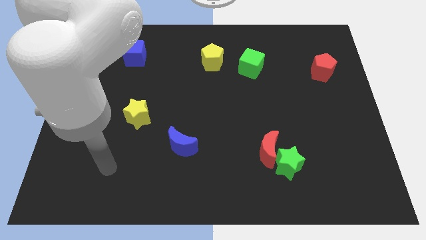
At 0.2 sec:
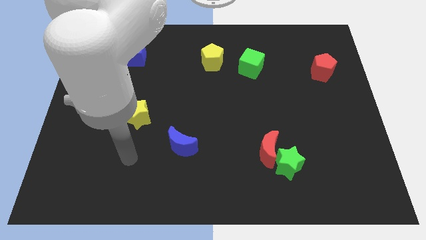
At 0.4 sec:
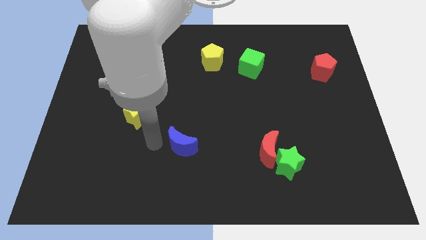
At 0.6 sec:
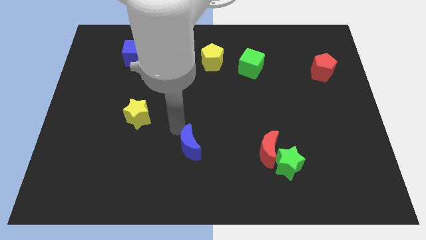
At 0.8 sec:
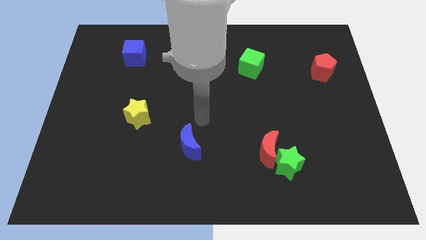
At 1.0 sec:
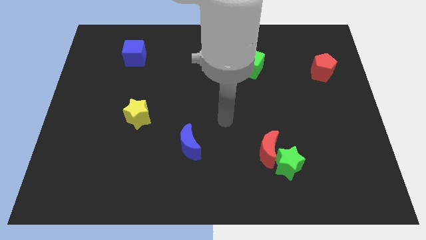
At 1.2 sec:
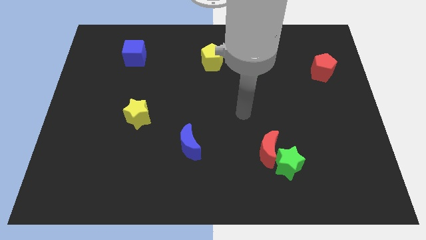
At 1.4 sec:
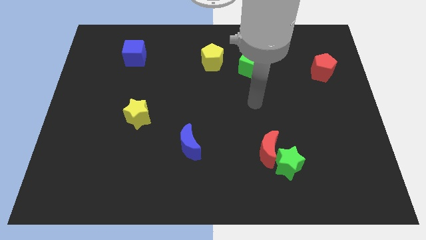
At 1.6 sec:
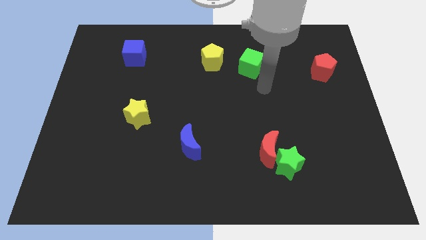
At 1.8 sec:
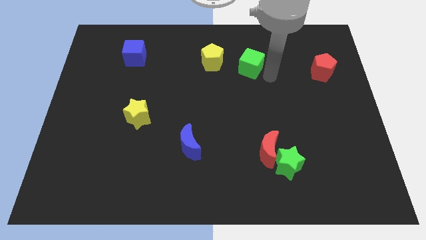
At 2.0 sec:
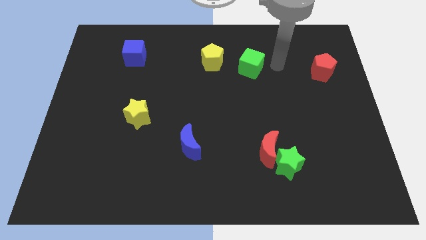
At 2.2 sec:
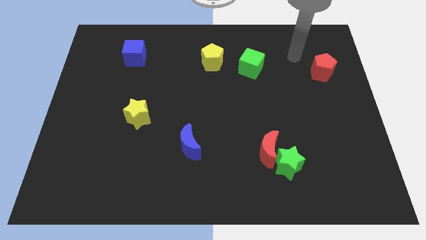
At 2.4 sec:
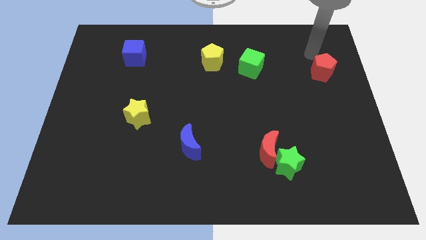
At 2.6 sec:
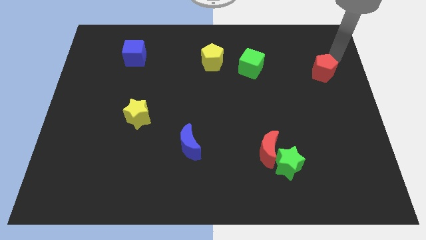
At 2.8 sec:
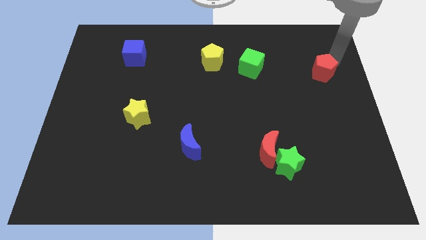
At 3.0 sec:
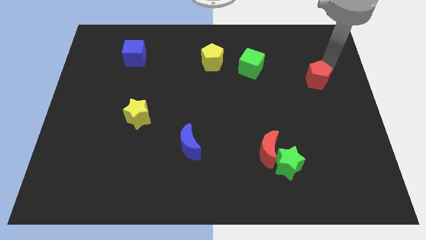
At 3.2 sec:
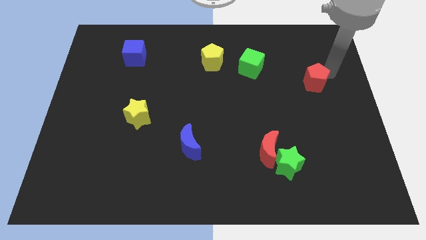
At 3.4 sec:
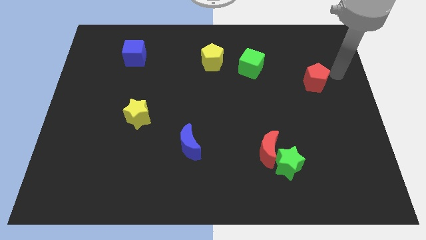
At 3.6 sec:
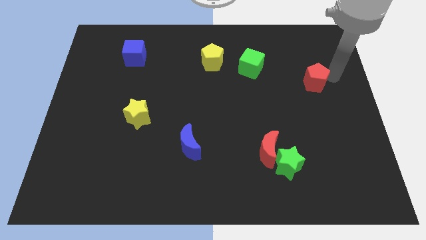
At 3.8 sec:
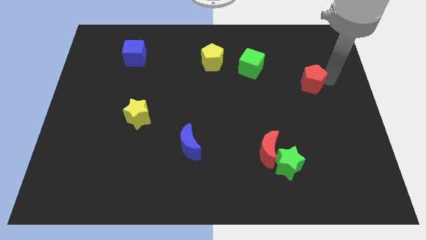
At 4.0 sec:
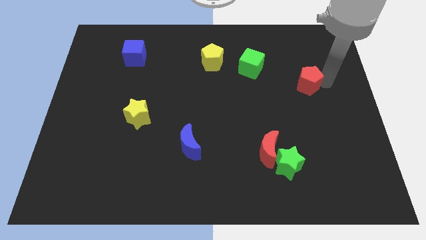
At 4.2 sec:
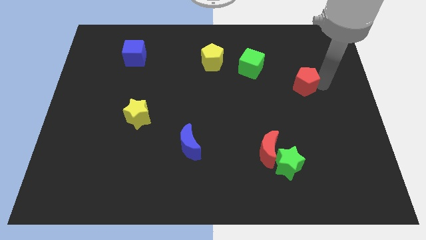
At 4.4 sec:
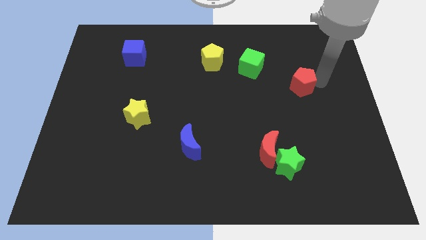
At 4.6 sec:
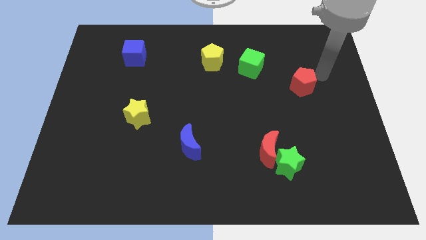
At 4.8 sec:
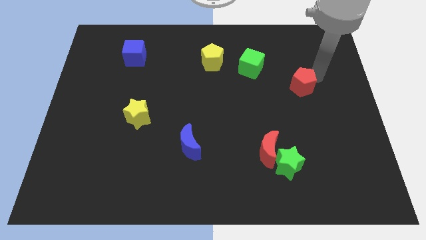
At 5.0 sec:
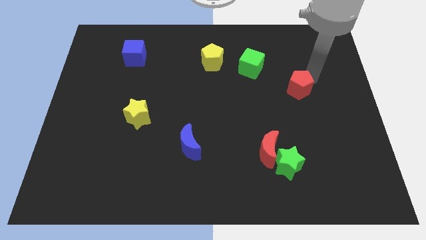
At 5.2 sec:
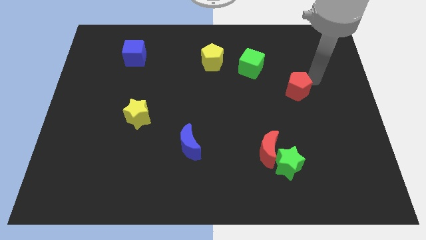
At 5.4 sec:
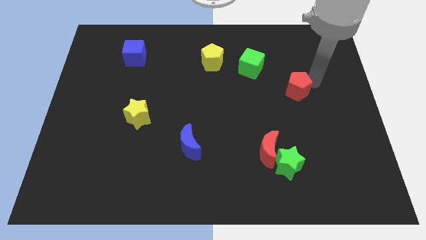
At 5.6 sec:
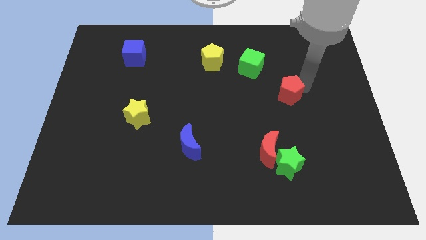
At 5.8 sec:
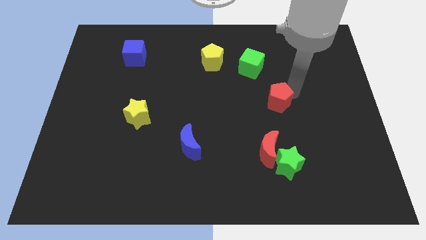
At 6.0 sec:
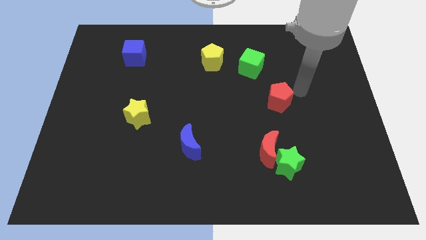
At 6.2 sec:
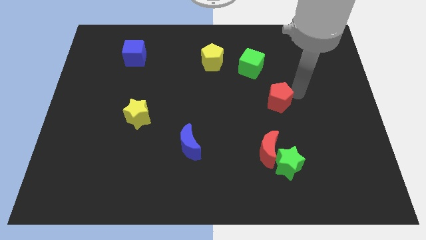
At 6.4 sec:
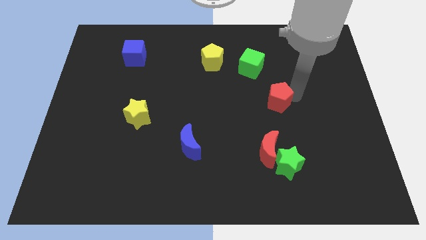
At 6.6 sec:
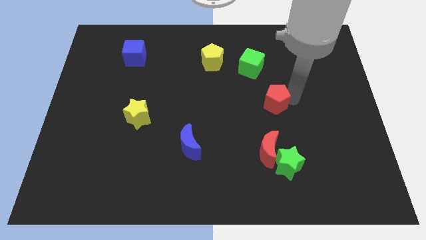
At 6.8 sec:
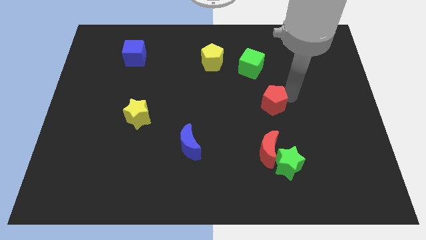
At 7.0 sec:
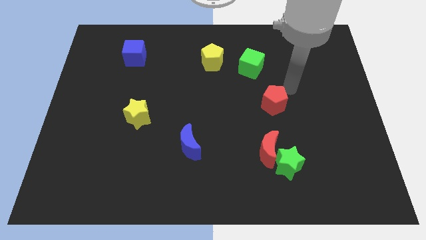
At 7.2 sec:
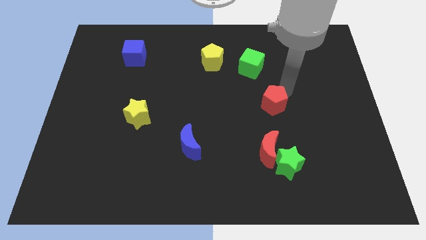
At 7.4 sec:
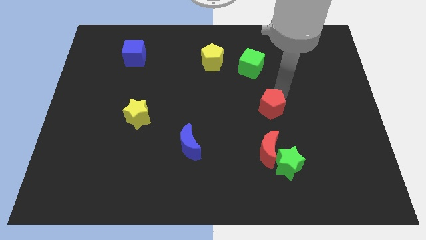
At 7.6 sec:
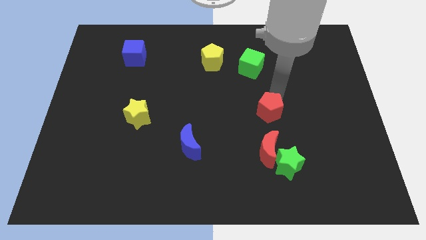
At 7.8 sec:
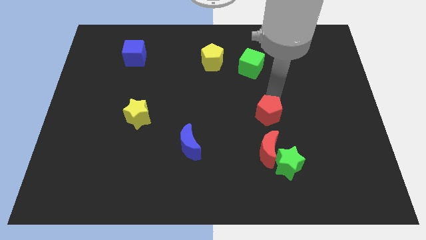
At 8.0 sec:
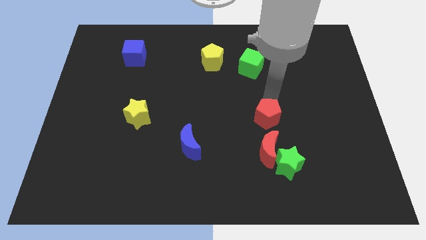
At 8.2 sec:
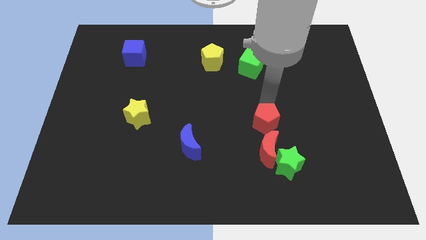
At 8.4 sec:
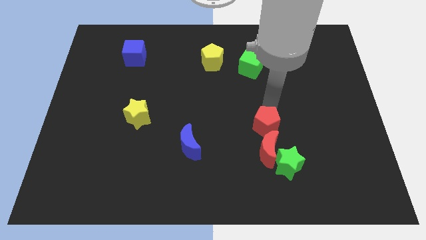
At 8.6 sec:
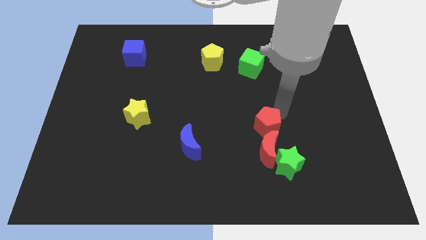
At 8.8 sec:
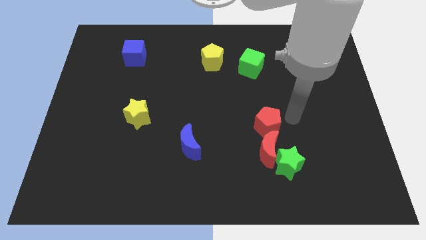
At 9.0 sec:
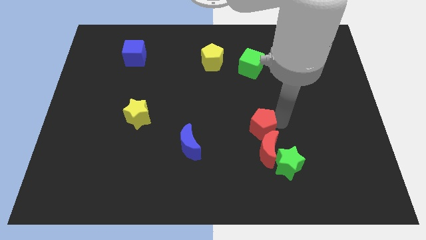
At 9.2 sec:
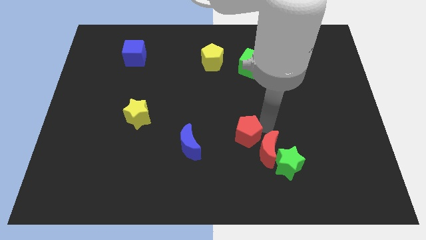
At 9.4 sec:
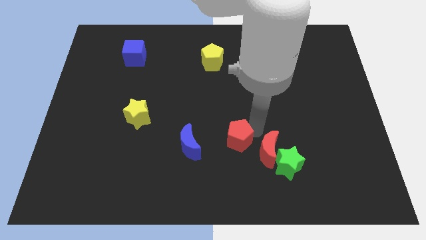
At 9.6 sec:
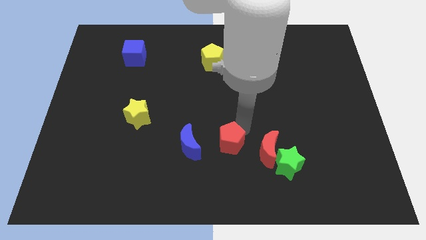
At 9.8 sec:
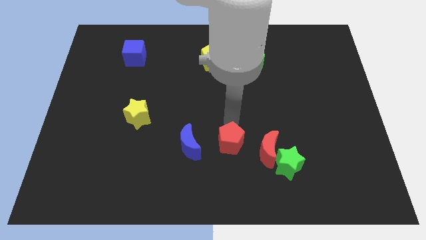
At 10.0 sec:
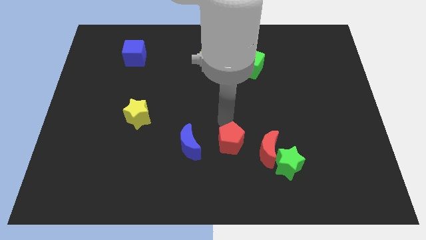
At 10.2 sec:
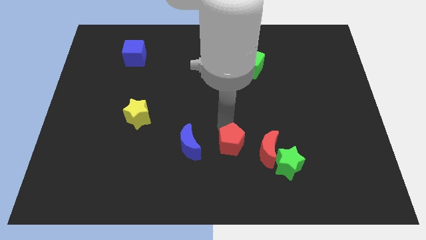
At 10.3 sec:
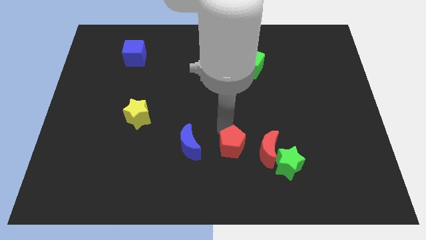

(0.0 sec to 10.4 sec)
slide the red pentagon left of the green star

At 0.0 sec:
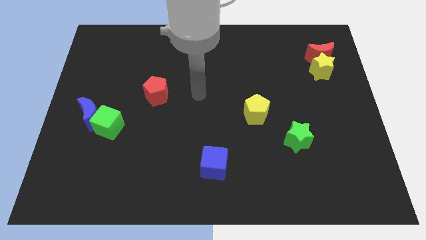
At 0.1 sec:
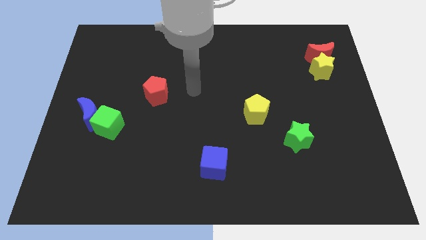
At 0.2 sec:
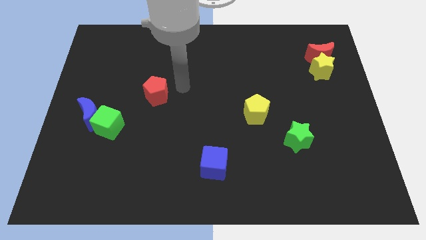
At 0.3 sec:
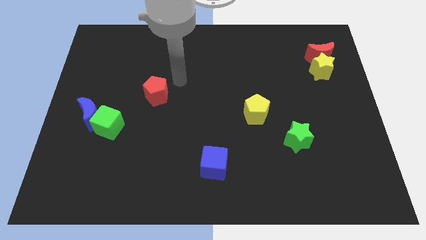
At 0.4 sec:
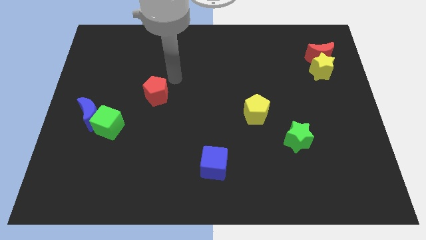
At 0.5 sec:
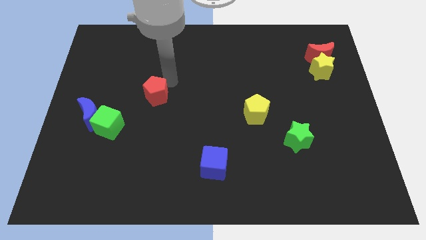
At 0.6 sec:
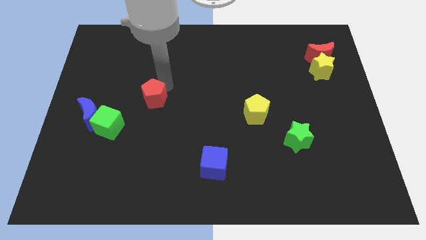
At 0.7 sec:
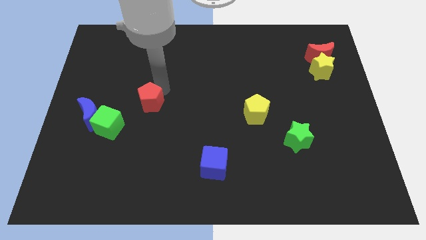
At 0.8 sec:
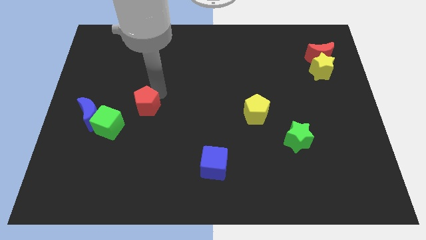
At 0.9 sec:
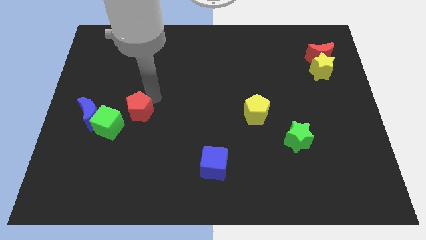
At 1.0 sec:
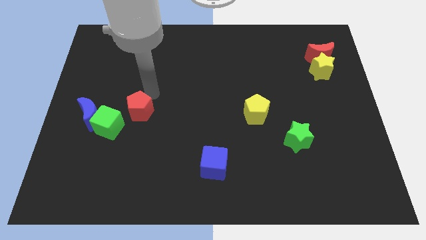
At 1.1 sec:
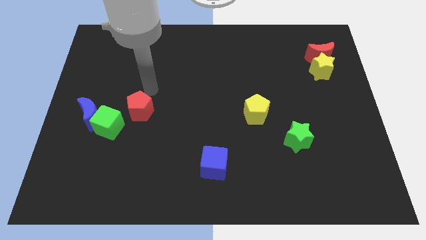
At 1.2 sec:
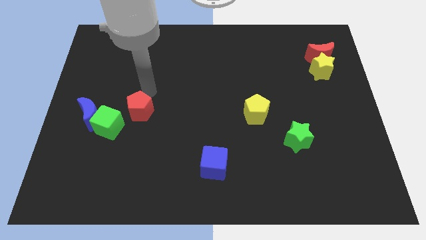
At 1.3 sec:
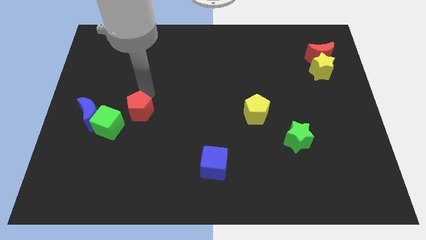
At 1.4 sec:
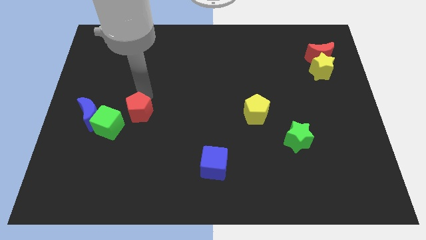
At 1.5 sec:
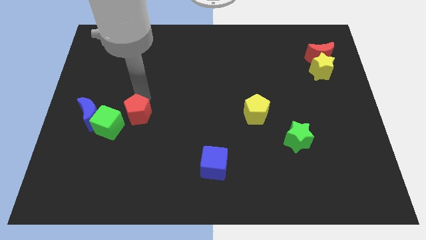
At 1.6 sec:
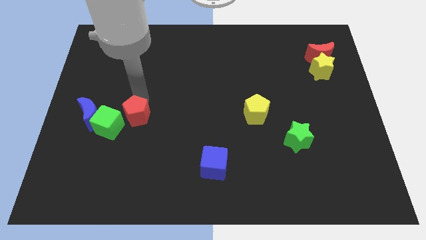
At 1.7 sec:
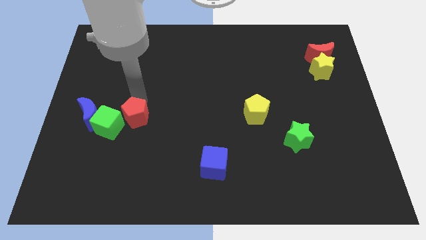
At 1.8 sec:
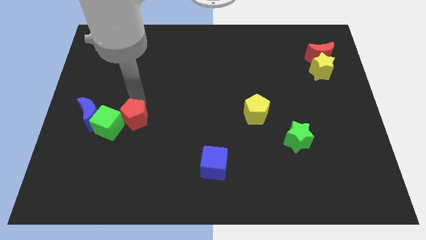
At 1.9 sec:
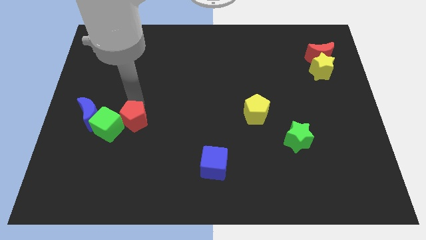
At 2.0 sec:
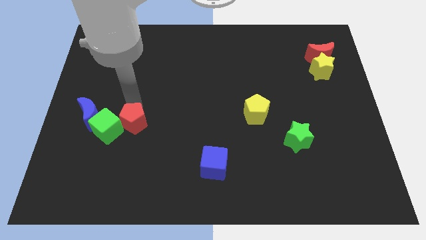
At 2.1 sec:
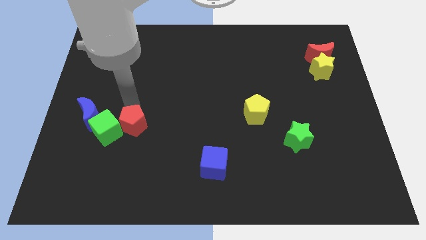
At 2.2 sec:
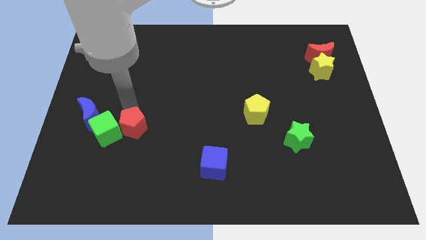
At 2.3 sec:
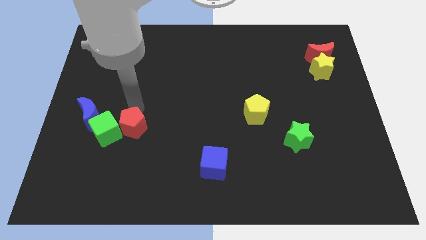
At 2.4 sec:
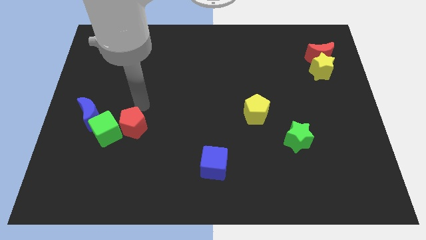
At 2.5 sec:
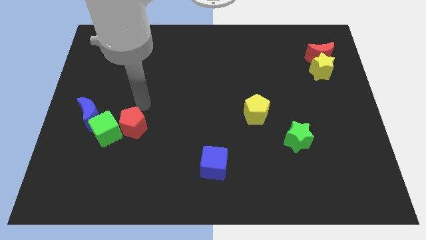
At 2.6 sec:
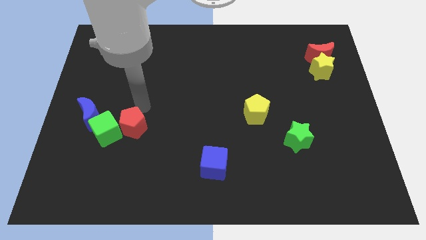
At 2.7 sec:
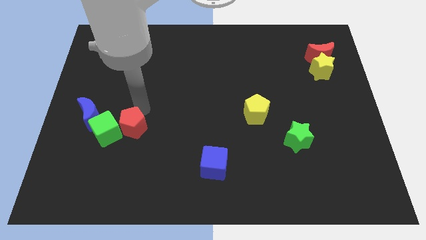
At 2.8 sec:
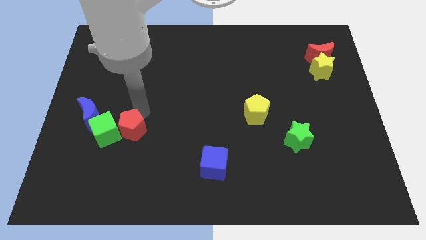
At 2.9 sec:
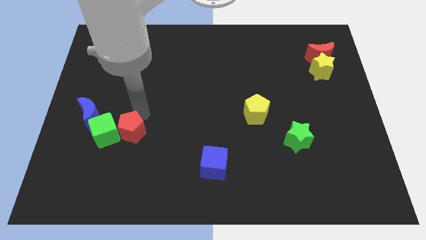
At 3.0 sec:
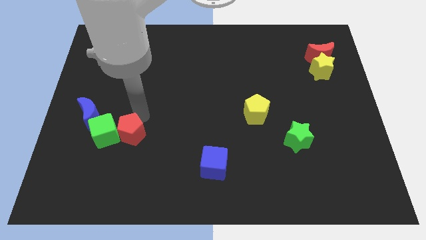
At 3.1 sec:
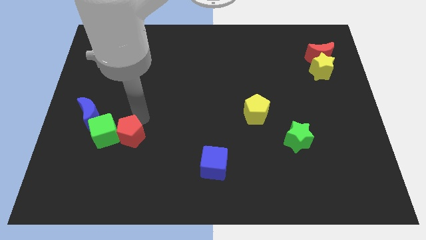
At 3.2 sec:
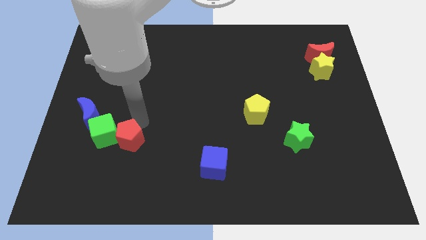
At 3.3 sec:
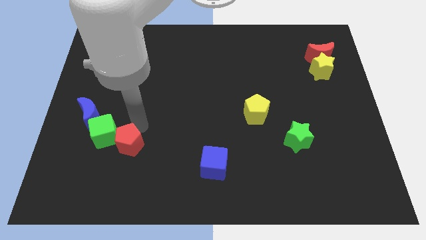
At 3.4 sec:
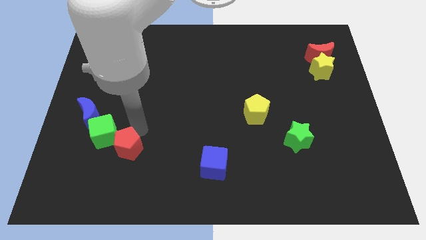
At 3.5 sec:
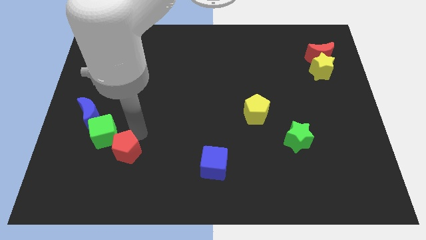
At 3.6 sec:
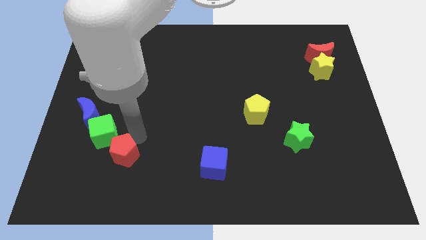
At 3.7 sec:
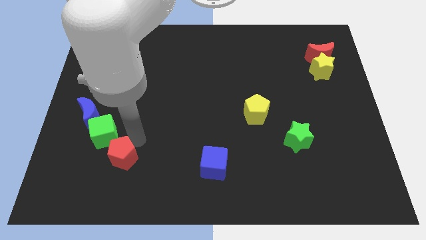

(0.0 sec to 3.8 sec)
slide the red pentagon below the green cube
